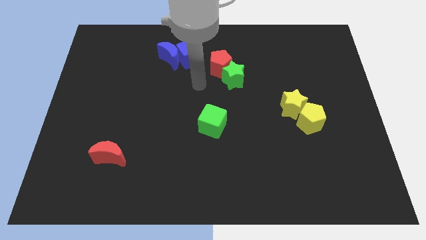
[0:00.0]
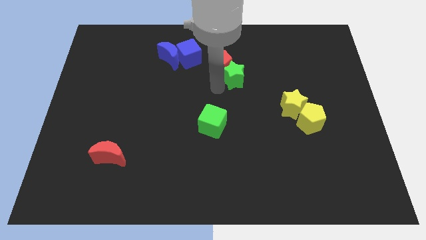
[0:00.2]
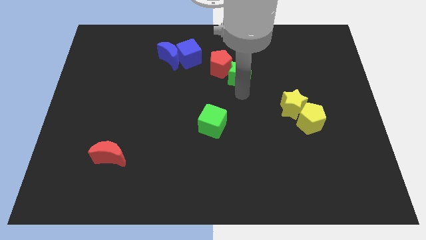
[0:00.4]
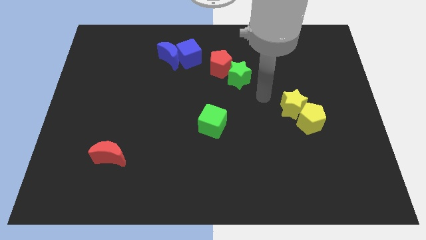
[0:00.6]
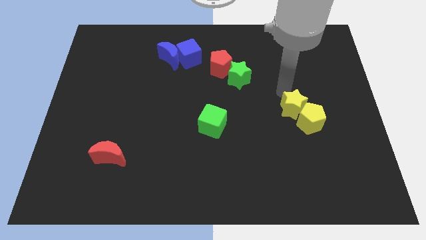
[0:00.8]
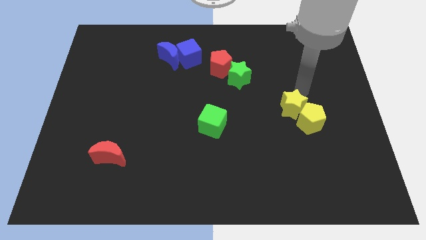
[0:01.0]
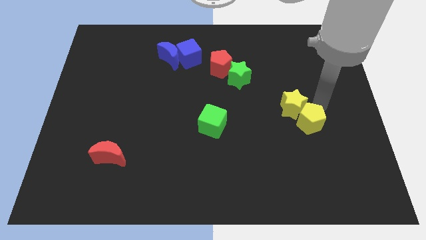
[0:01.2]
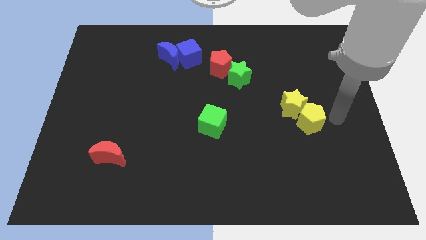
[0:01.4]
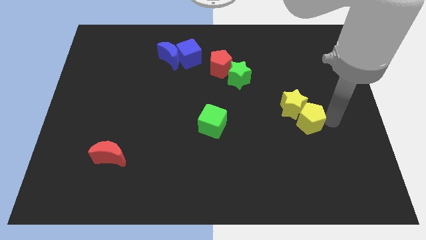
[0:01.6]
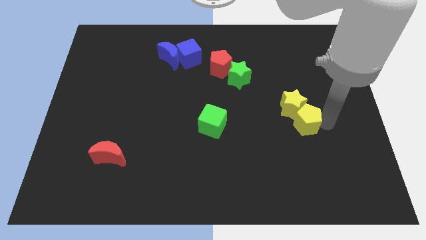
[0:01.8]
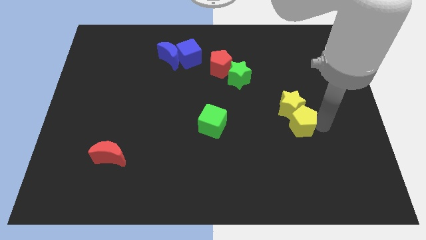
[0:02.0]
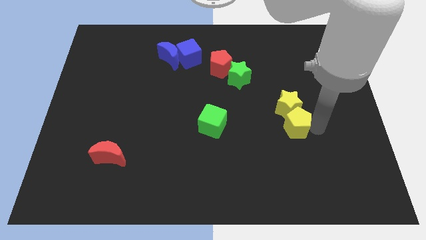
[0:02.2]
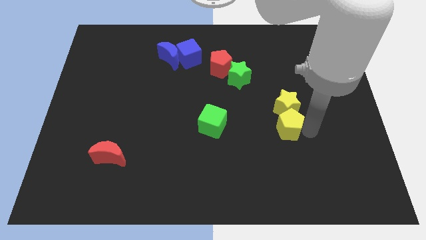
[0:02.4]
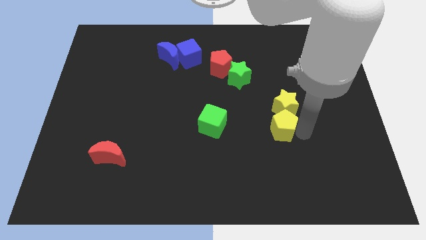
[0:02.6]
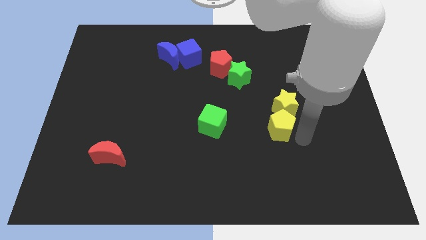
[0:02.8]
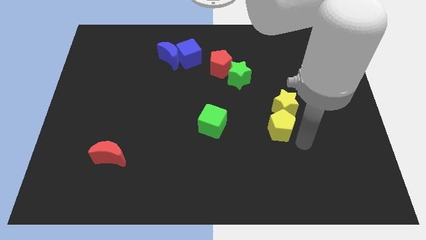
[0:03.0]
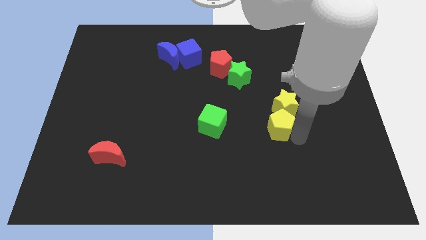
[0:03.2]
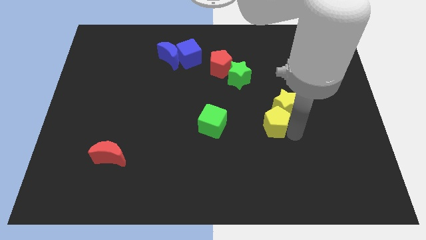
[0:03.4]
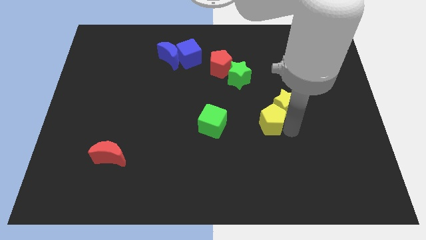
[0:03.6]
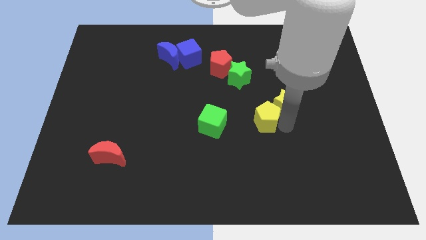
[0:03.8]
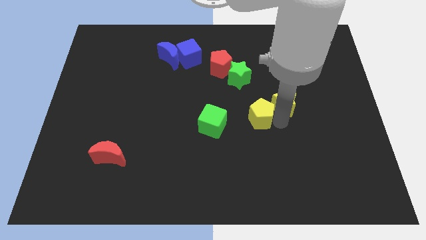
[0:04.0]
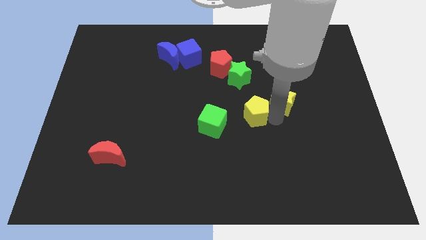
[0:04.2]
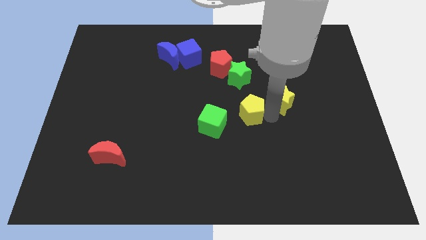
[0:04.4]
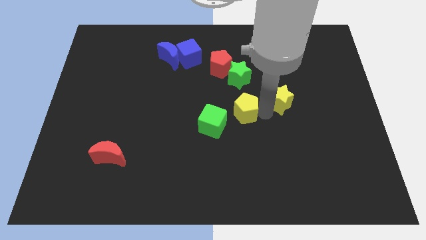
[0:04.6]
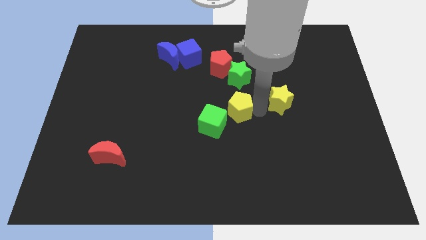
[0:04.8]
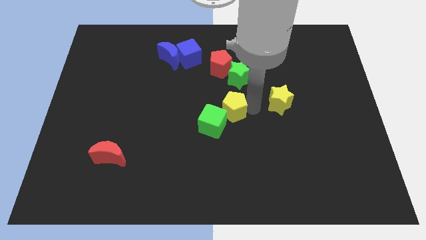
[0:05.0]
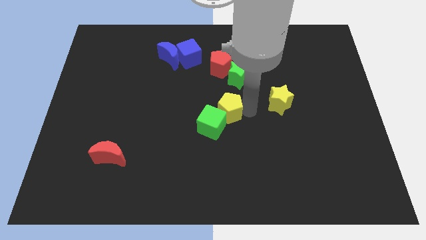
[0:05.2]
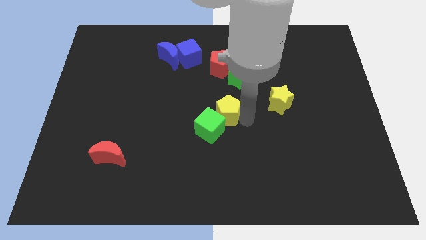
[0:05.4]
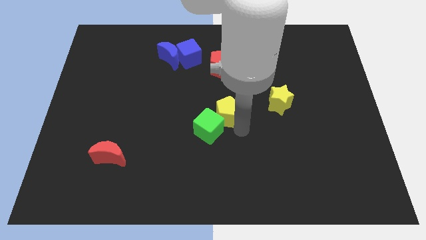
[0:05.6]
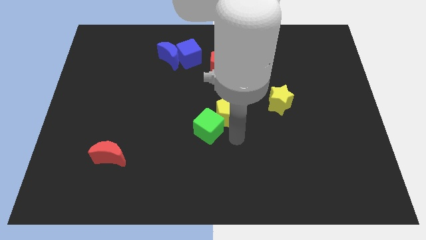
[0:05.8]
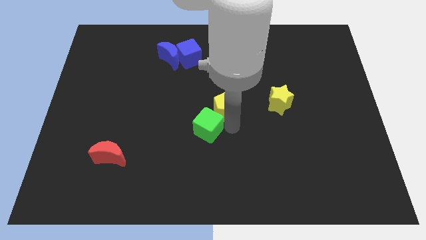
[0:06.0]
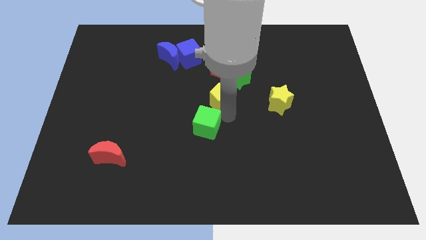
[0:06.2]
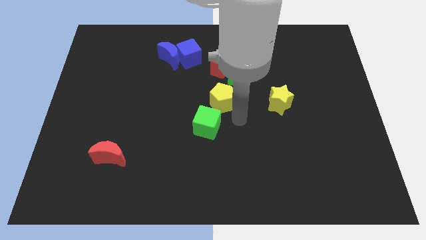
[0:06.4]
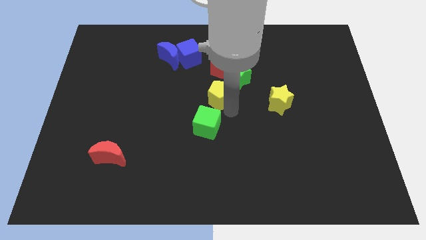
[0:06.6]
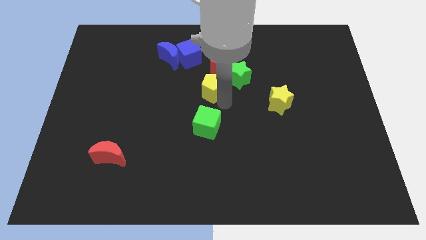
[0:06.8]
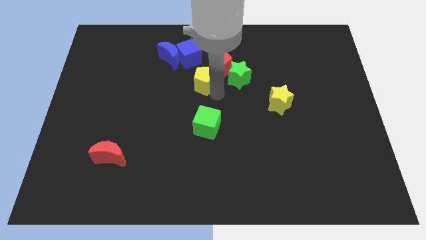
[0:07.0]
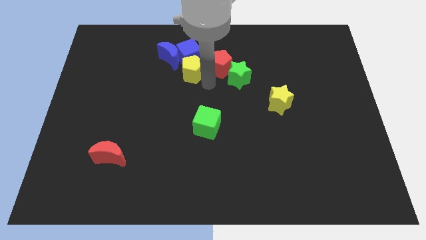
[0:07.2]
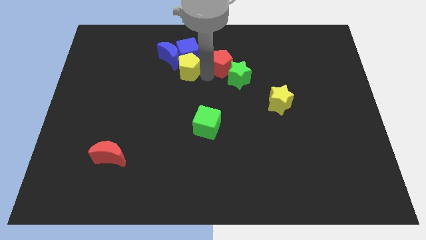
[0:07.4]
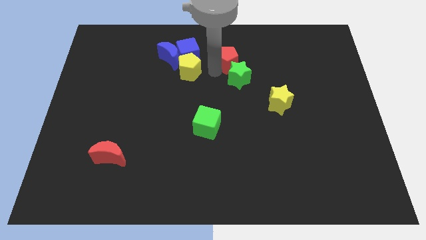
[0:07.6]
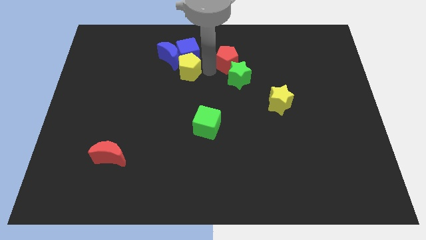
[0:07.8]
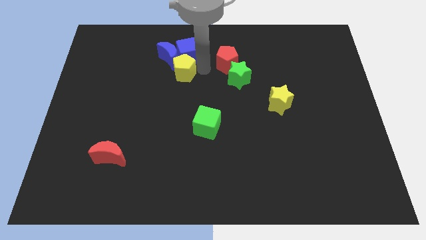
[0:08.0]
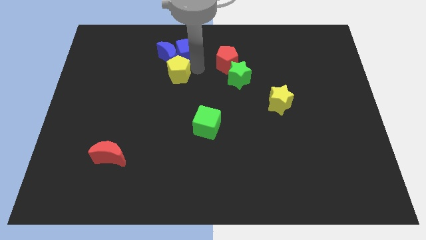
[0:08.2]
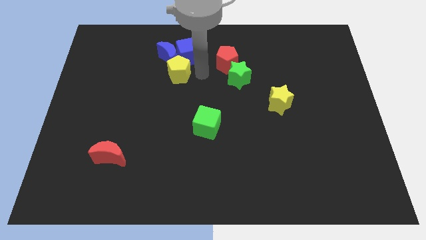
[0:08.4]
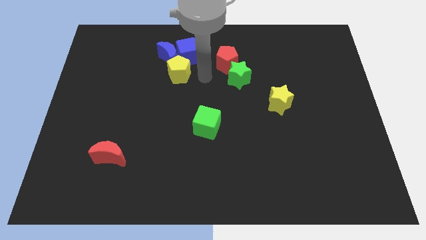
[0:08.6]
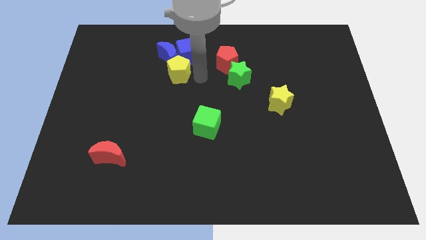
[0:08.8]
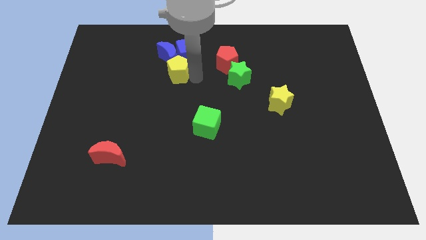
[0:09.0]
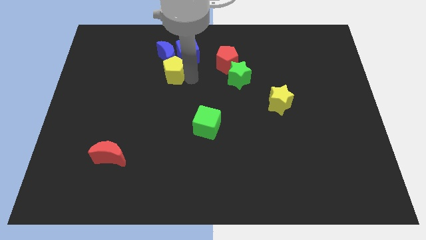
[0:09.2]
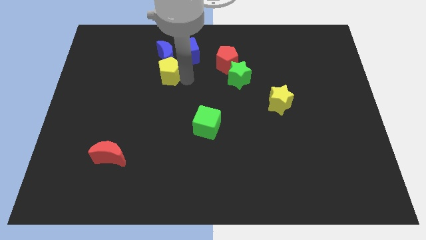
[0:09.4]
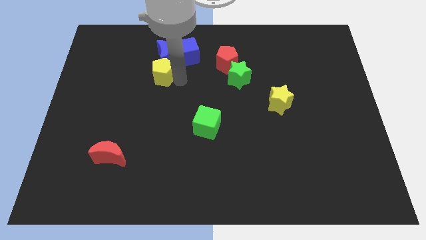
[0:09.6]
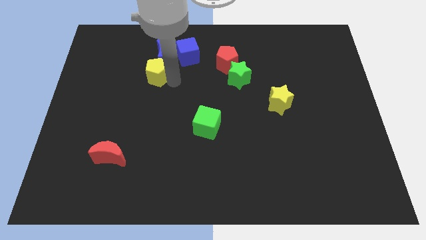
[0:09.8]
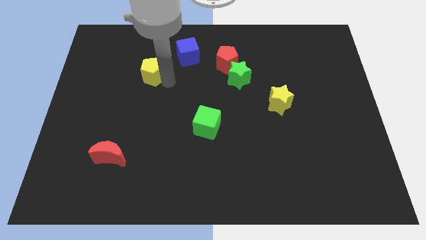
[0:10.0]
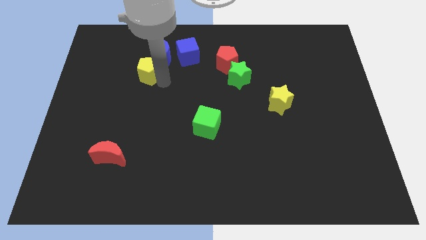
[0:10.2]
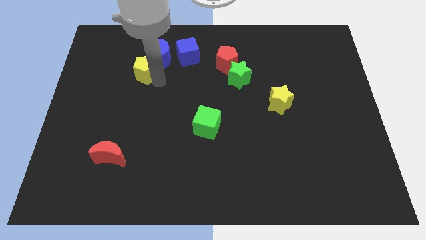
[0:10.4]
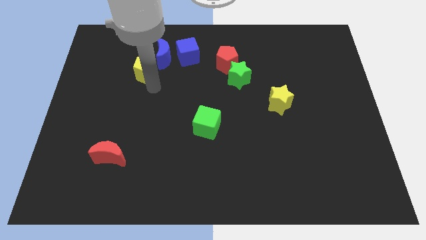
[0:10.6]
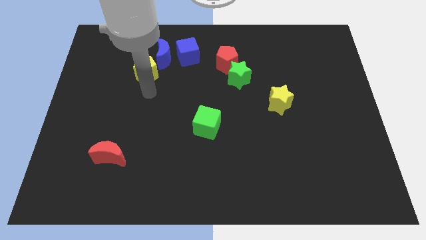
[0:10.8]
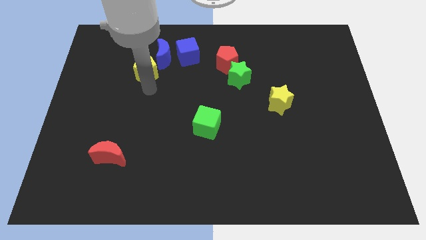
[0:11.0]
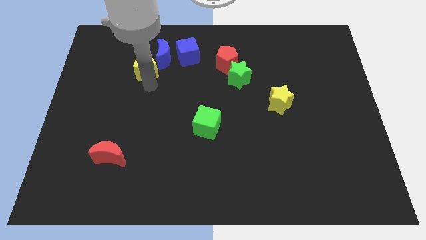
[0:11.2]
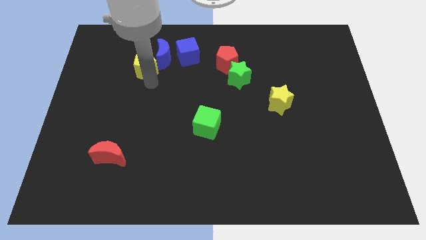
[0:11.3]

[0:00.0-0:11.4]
move the yellow pentagon left of the blue moon

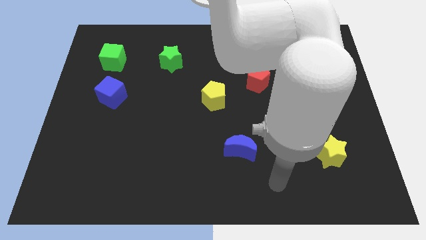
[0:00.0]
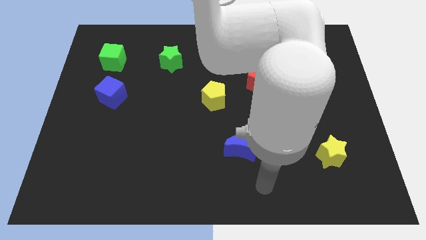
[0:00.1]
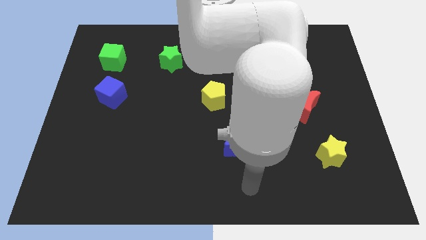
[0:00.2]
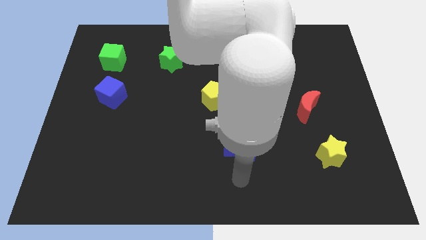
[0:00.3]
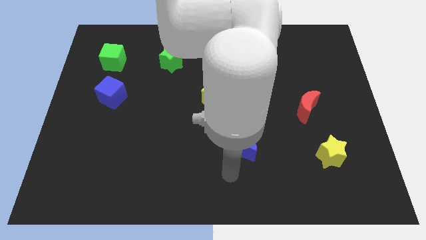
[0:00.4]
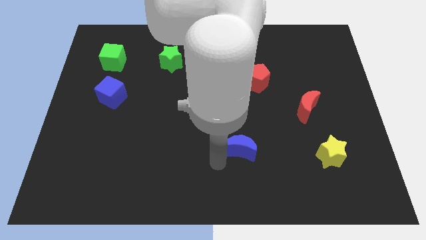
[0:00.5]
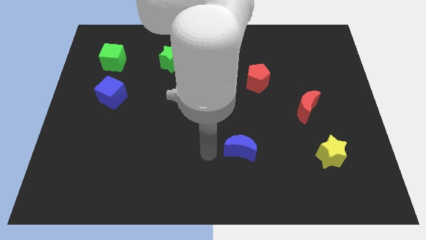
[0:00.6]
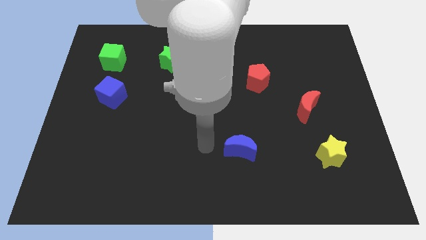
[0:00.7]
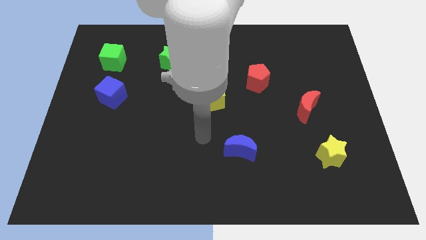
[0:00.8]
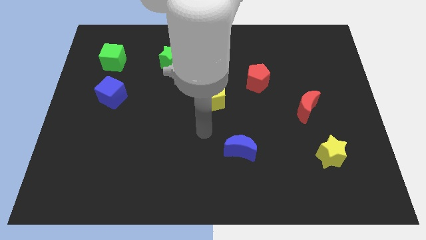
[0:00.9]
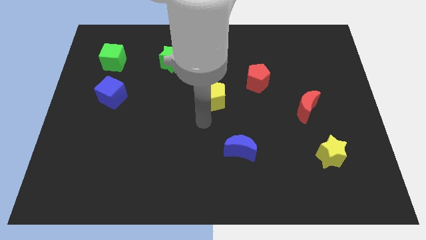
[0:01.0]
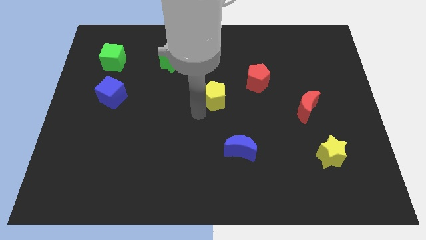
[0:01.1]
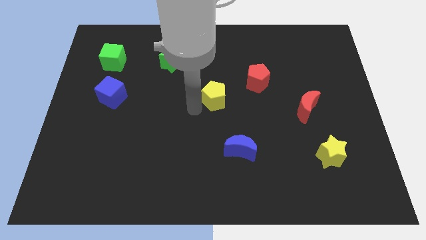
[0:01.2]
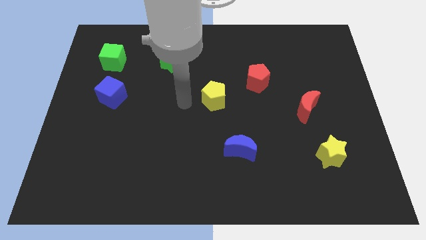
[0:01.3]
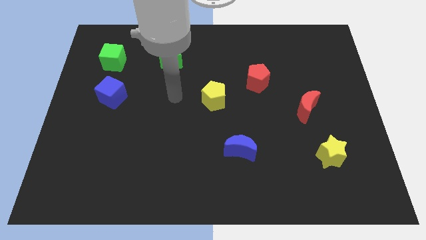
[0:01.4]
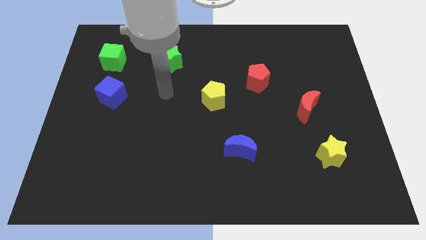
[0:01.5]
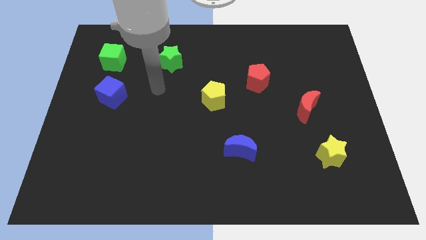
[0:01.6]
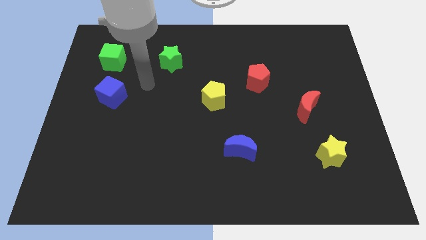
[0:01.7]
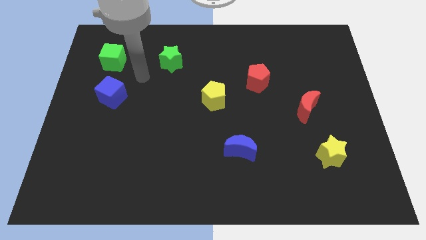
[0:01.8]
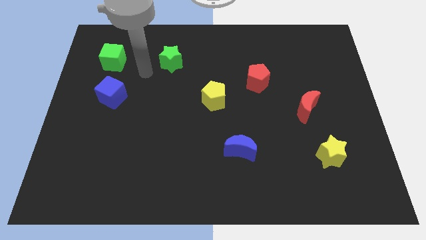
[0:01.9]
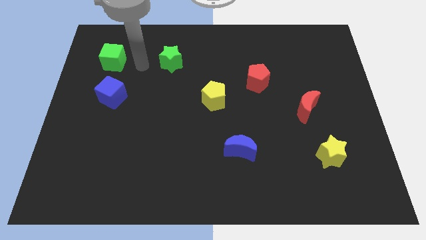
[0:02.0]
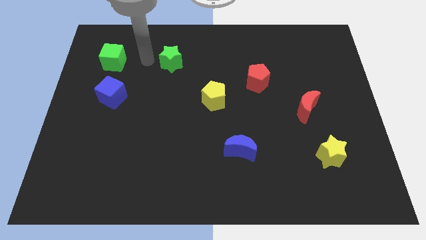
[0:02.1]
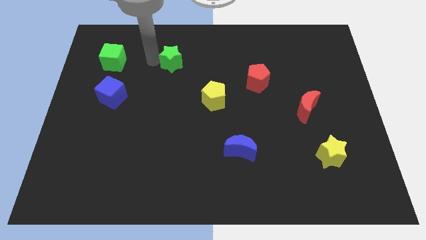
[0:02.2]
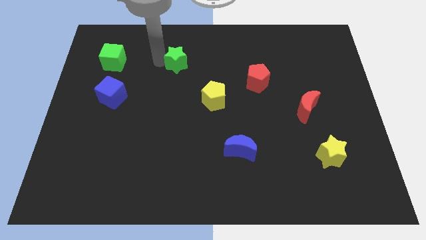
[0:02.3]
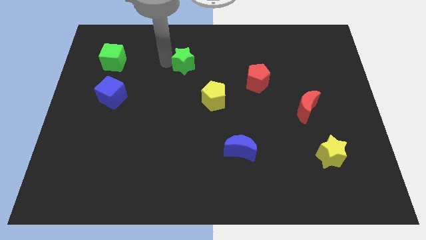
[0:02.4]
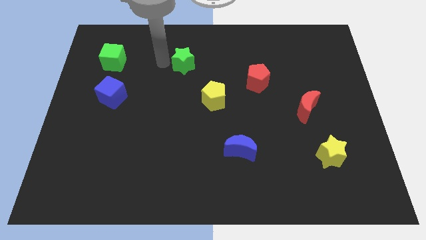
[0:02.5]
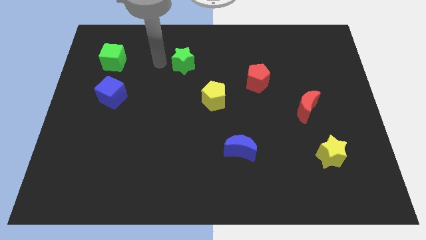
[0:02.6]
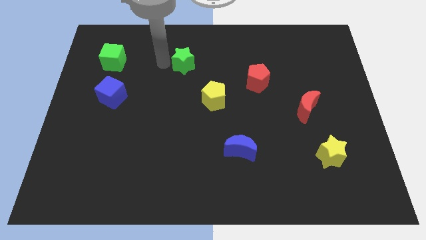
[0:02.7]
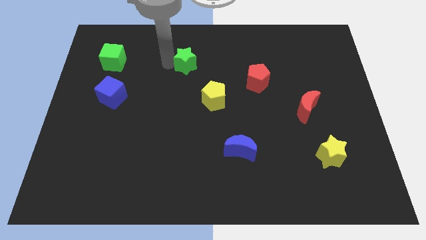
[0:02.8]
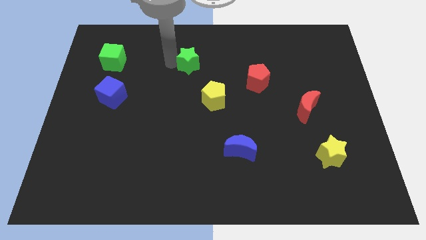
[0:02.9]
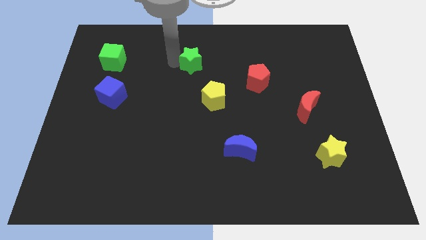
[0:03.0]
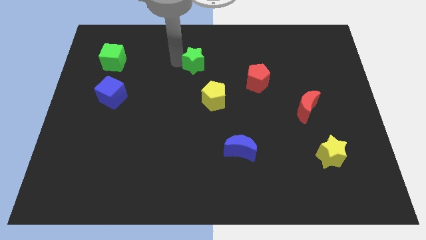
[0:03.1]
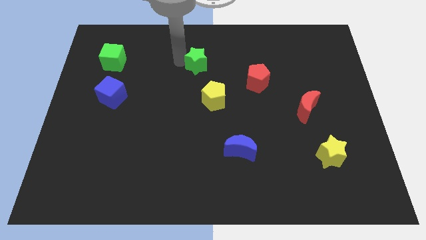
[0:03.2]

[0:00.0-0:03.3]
push the green star to the top side of the yellow pentagon
